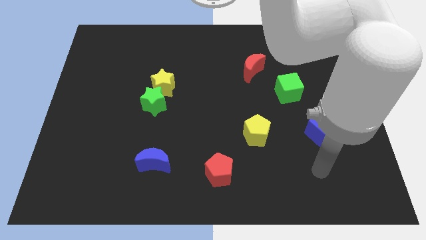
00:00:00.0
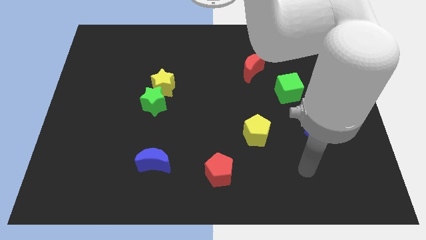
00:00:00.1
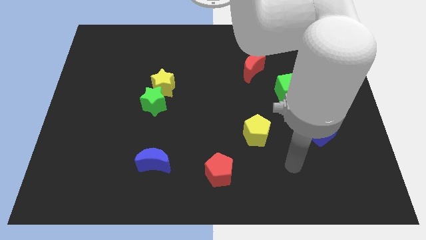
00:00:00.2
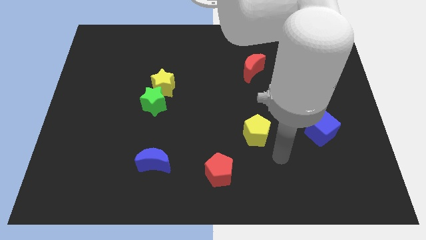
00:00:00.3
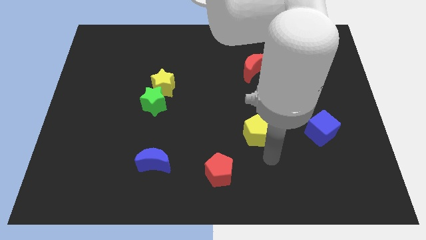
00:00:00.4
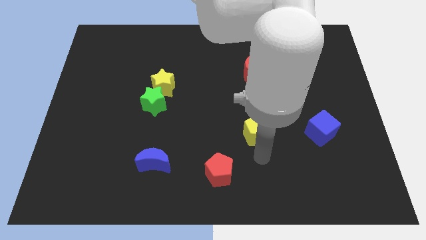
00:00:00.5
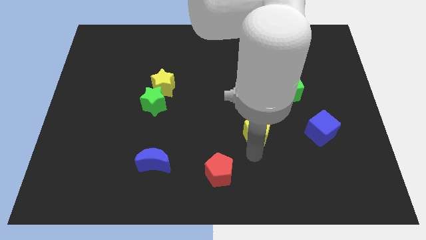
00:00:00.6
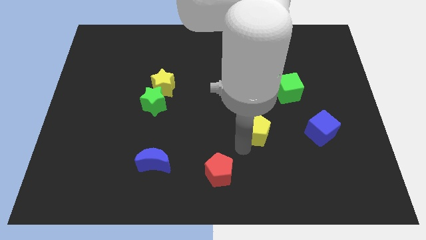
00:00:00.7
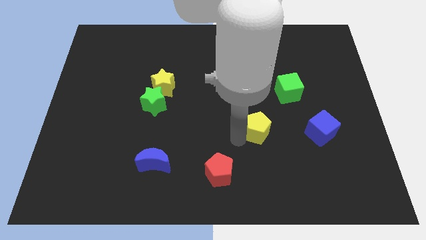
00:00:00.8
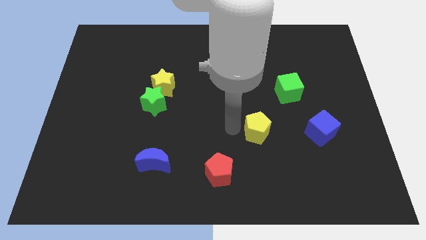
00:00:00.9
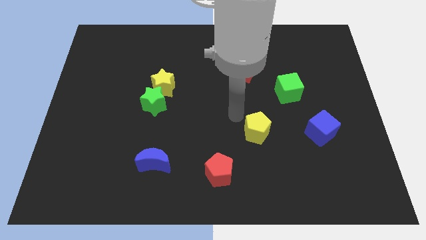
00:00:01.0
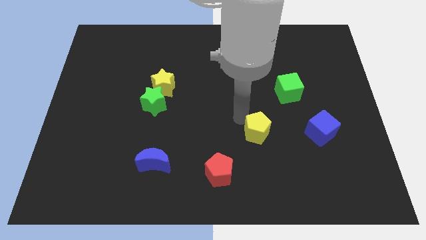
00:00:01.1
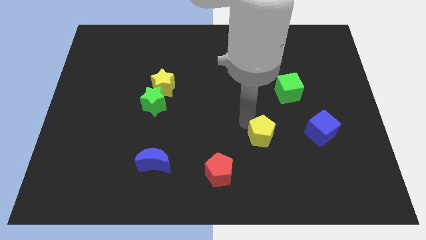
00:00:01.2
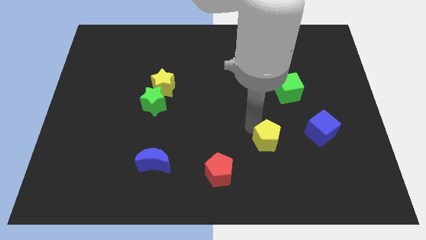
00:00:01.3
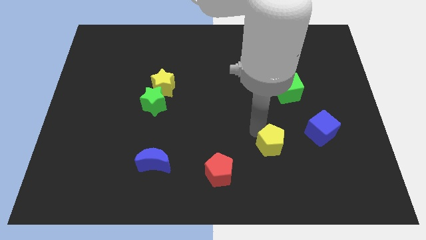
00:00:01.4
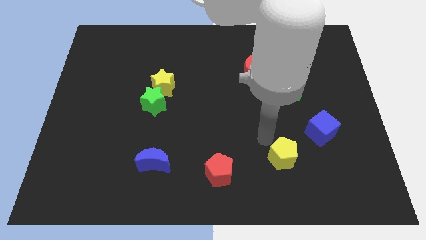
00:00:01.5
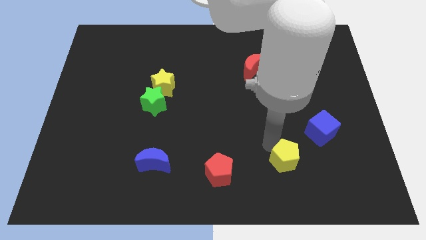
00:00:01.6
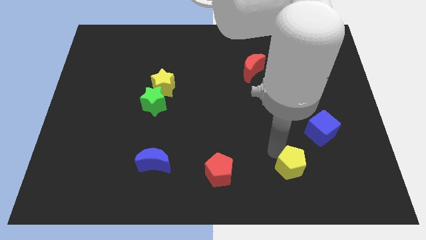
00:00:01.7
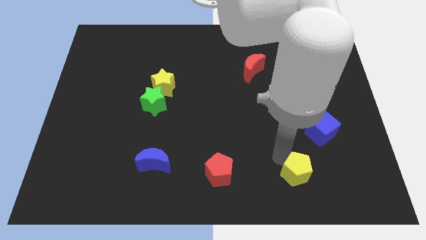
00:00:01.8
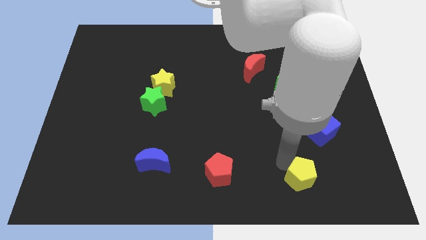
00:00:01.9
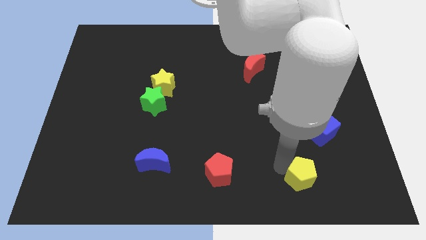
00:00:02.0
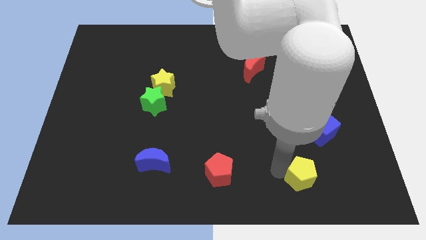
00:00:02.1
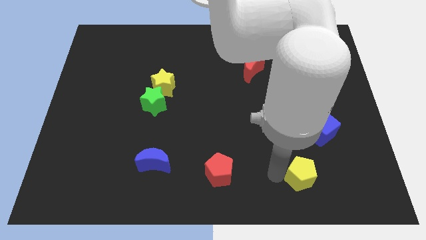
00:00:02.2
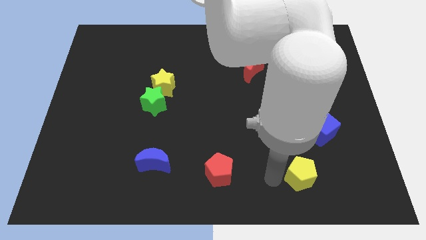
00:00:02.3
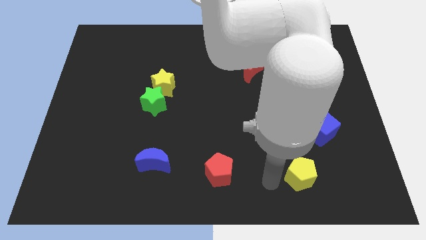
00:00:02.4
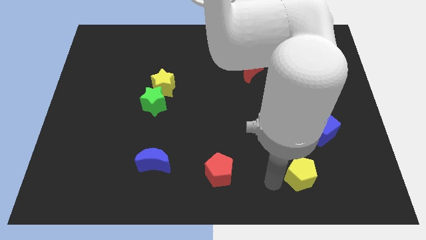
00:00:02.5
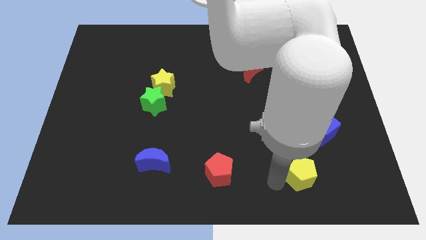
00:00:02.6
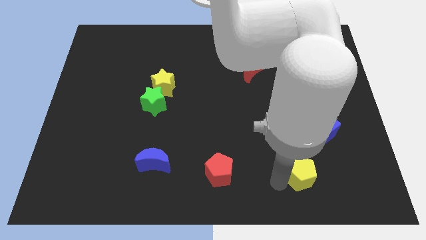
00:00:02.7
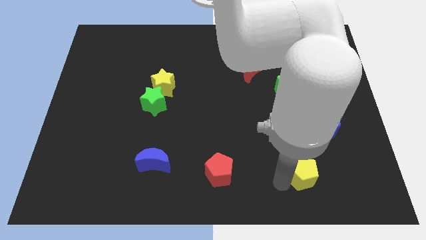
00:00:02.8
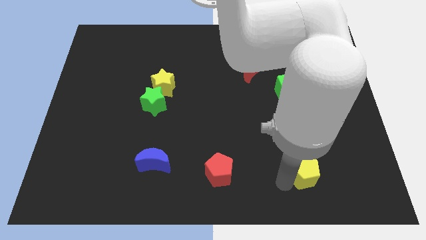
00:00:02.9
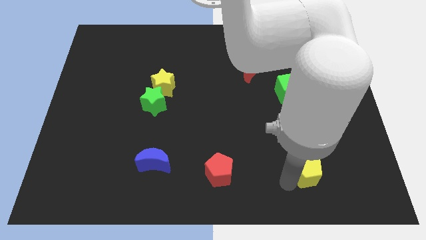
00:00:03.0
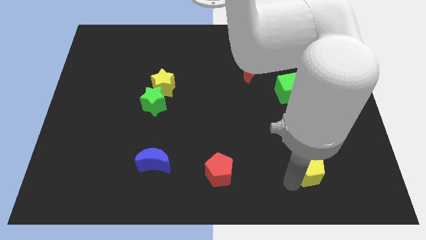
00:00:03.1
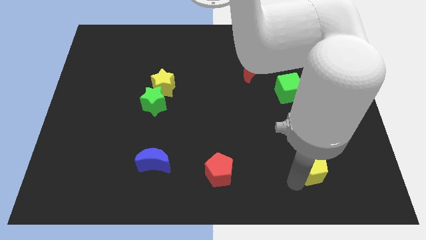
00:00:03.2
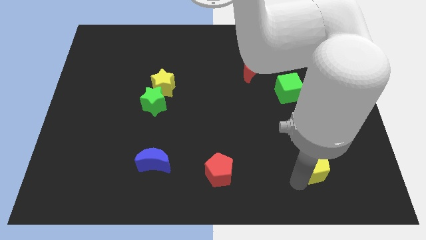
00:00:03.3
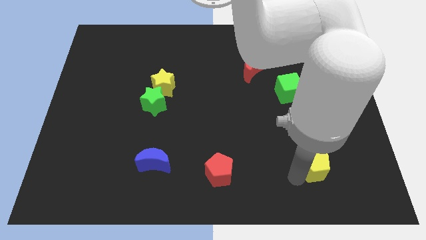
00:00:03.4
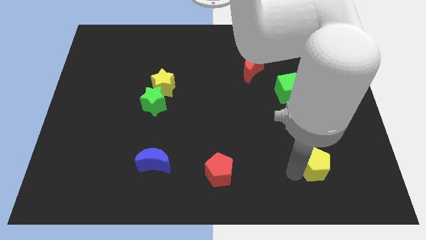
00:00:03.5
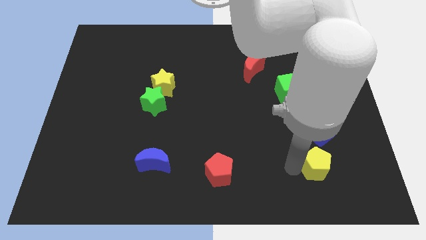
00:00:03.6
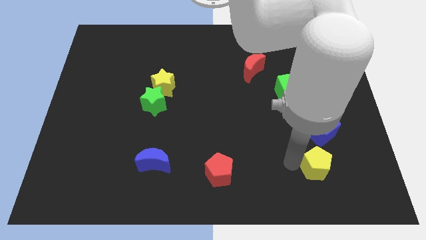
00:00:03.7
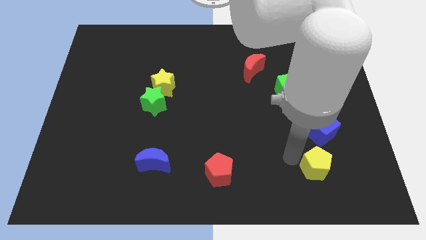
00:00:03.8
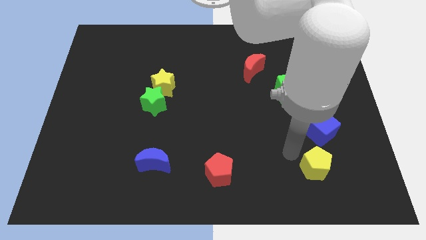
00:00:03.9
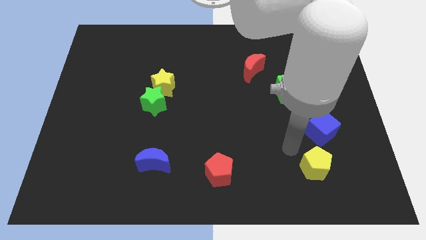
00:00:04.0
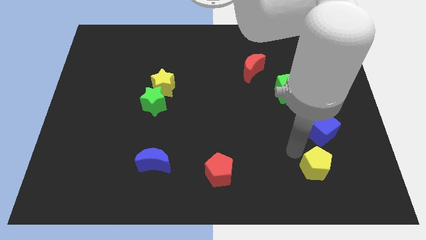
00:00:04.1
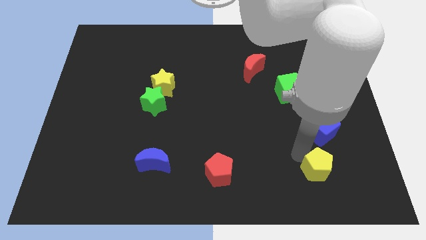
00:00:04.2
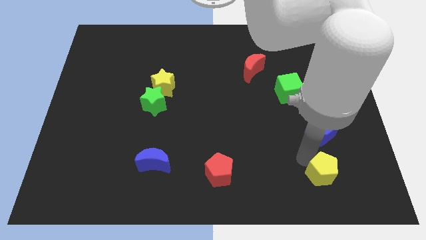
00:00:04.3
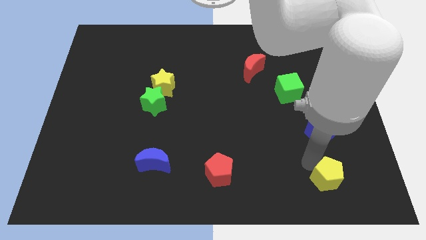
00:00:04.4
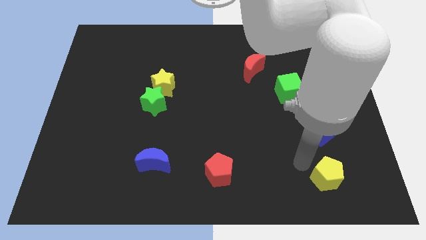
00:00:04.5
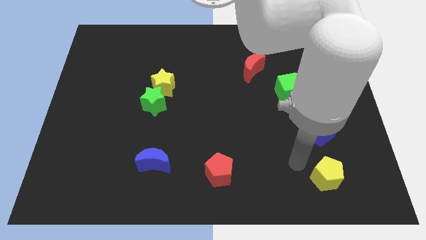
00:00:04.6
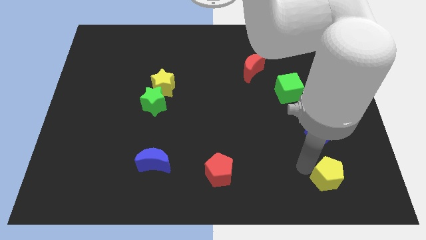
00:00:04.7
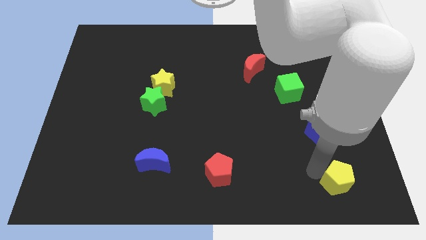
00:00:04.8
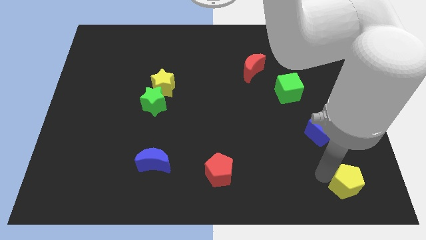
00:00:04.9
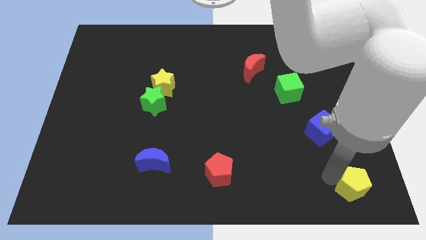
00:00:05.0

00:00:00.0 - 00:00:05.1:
put the yellow pentagon to the bottom right of the board

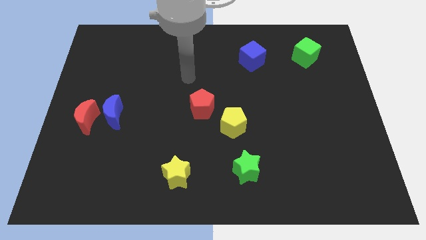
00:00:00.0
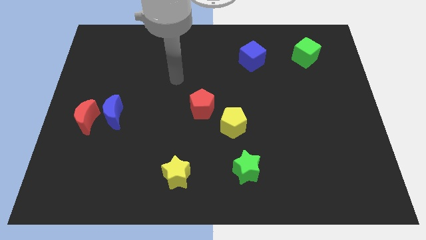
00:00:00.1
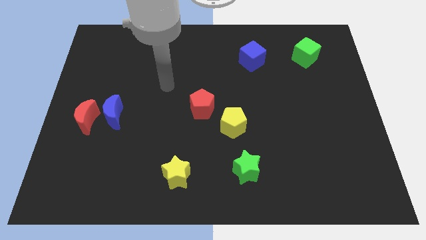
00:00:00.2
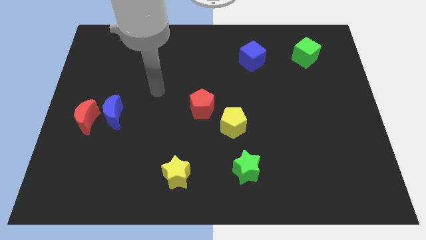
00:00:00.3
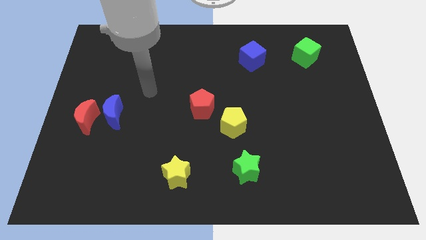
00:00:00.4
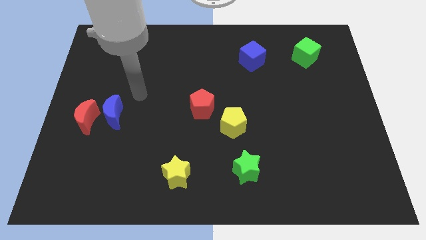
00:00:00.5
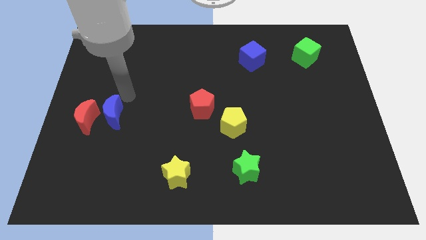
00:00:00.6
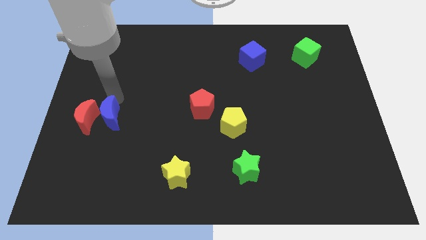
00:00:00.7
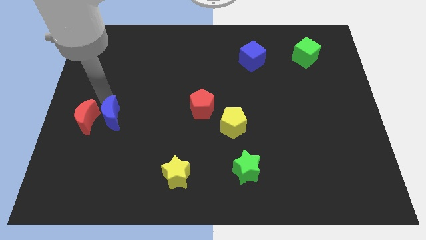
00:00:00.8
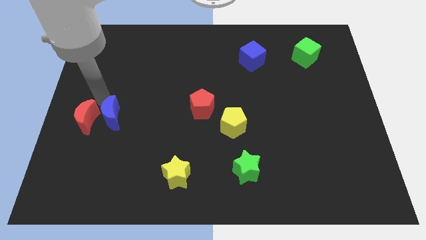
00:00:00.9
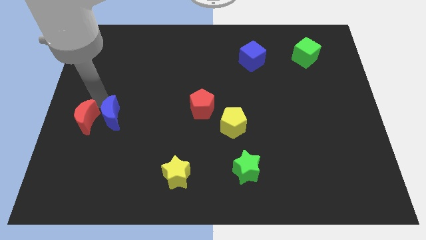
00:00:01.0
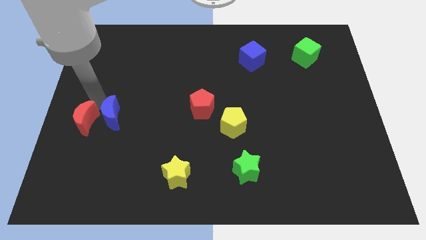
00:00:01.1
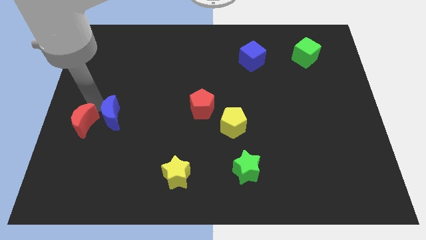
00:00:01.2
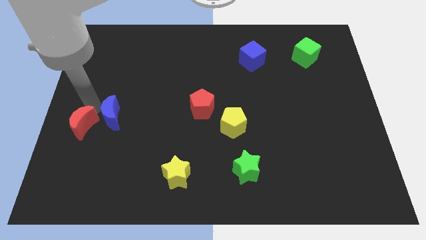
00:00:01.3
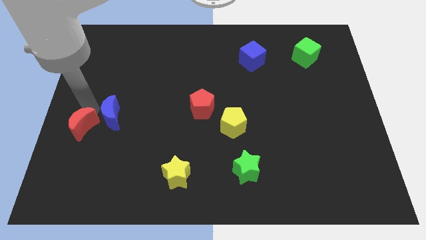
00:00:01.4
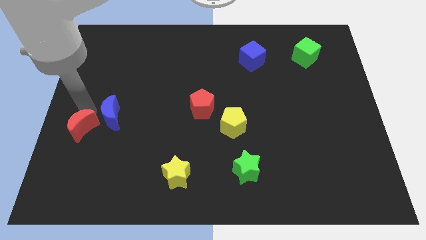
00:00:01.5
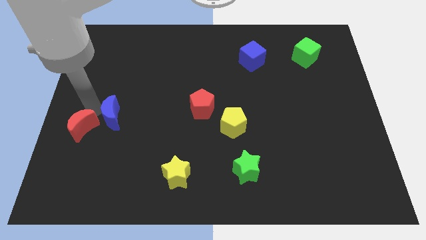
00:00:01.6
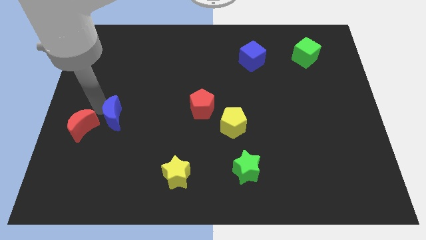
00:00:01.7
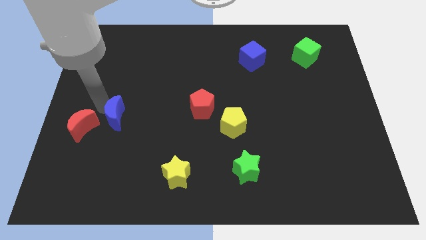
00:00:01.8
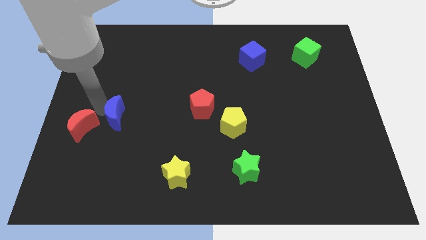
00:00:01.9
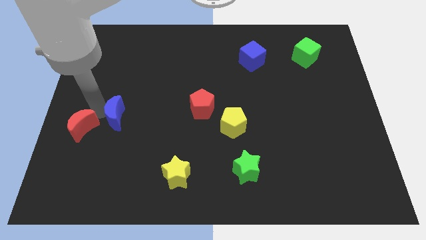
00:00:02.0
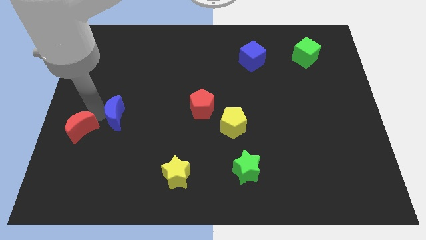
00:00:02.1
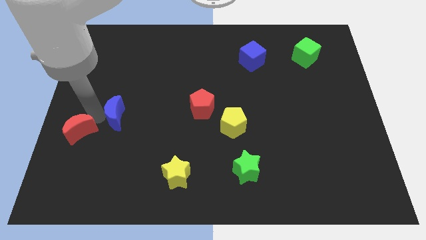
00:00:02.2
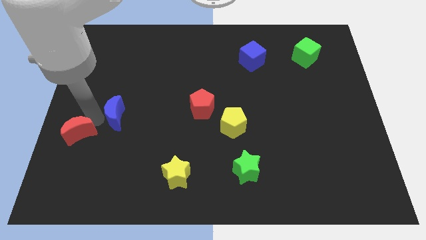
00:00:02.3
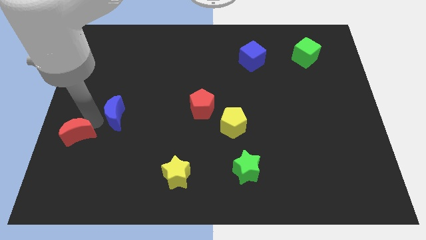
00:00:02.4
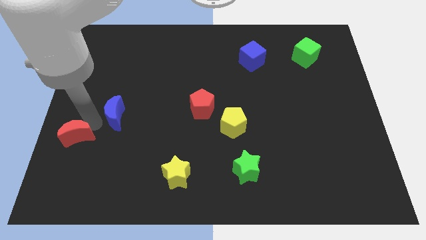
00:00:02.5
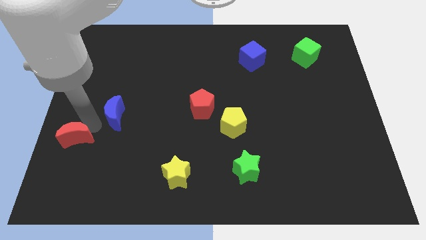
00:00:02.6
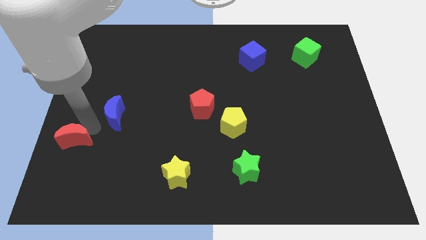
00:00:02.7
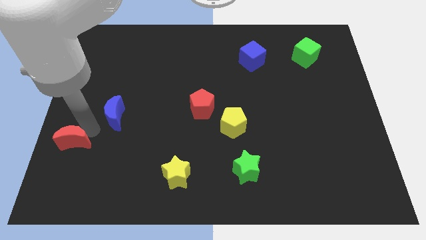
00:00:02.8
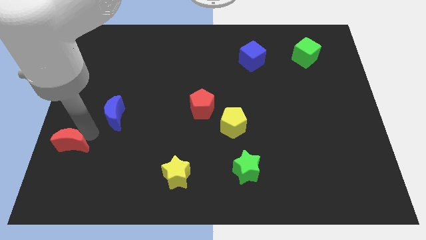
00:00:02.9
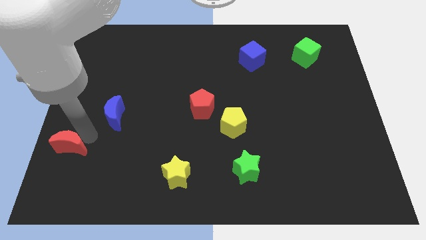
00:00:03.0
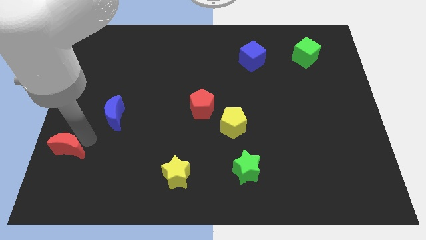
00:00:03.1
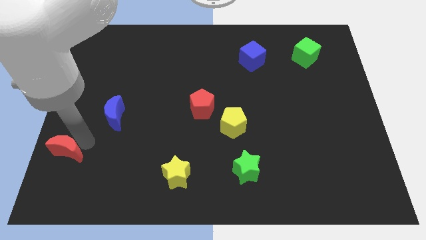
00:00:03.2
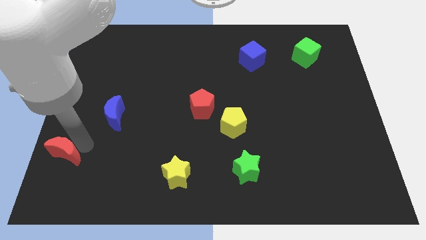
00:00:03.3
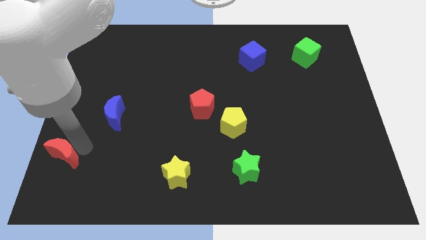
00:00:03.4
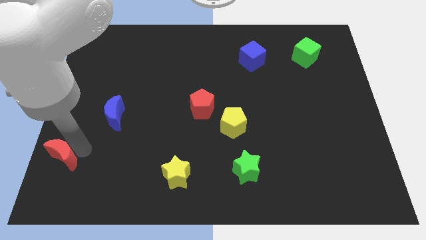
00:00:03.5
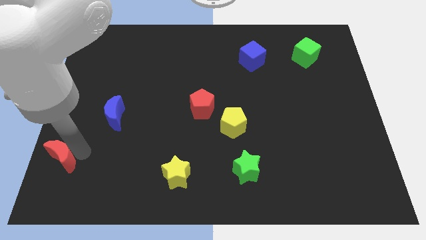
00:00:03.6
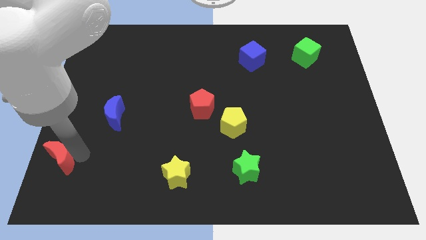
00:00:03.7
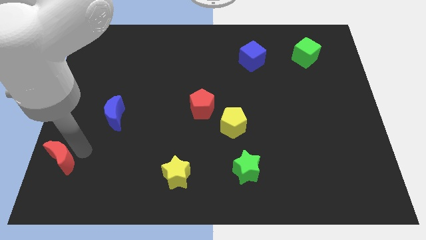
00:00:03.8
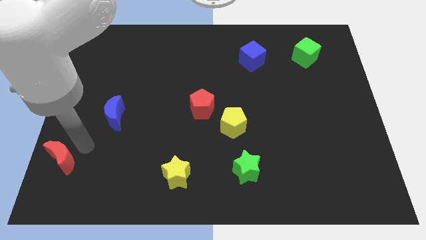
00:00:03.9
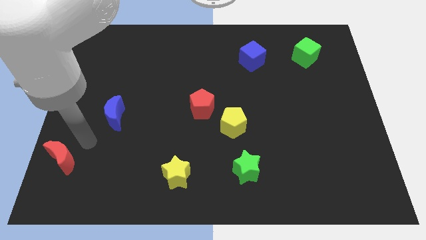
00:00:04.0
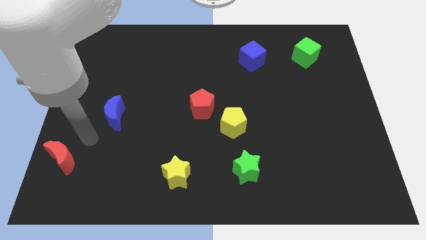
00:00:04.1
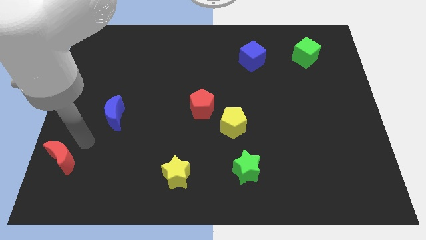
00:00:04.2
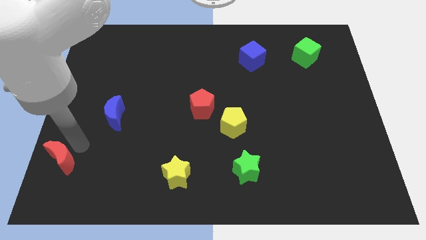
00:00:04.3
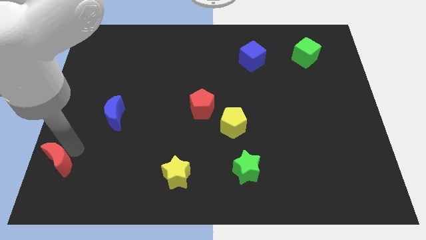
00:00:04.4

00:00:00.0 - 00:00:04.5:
put the red moon to the lower left corner
